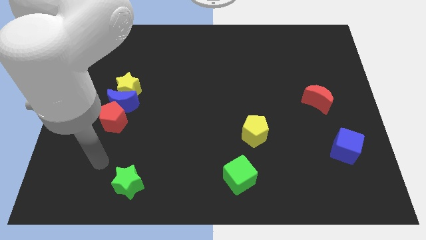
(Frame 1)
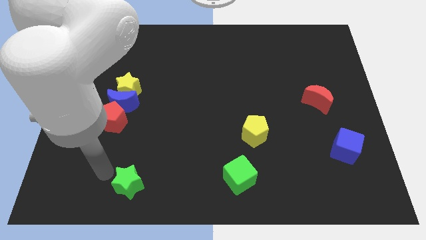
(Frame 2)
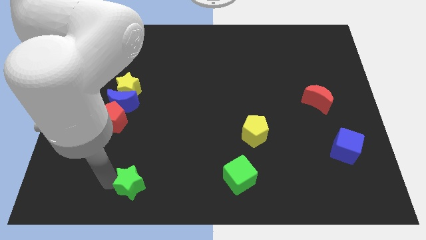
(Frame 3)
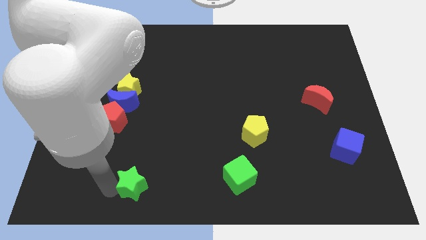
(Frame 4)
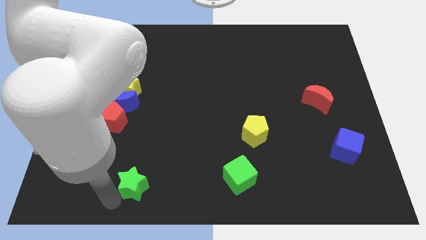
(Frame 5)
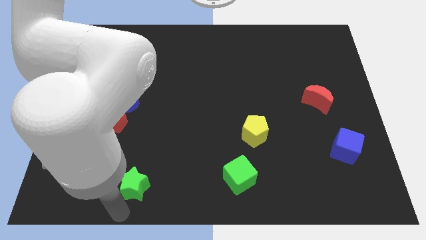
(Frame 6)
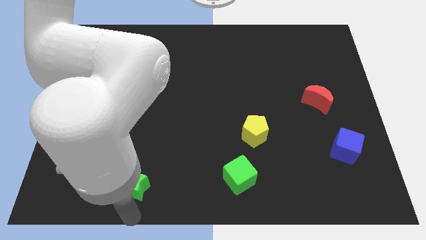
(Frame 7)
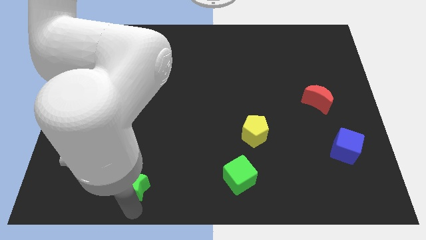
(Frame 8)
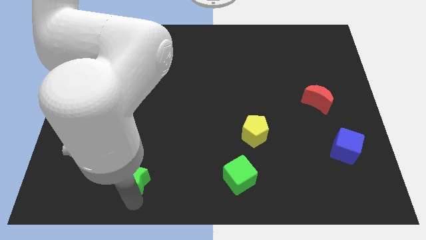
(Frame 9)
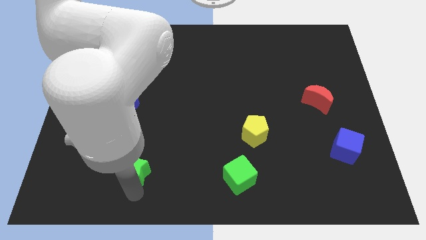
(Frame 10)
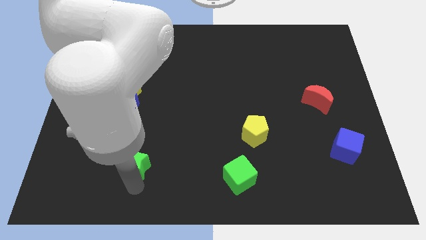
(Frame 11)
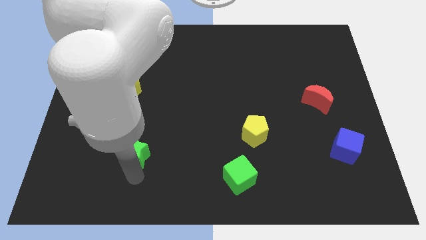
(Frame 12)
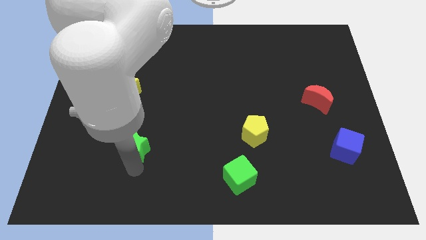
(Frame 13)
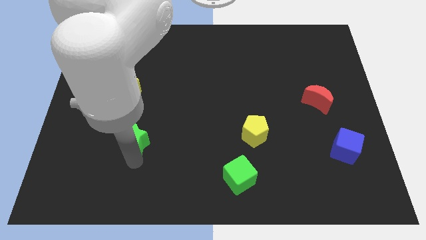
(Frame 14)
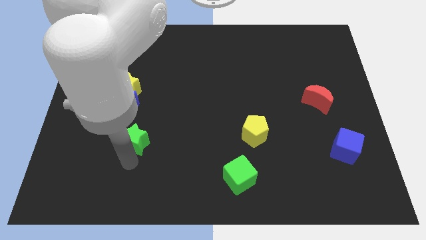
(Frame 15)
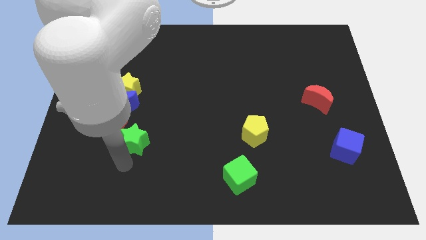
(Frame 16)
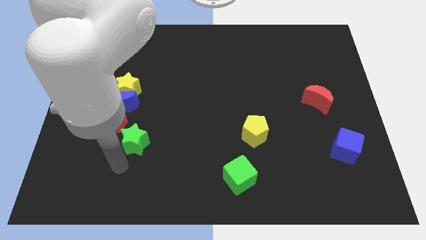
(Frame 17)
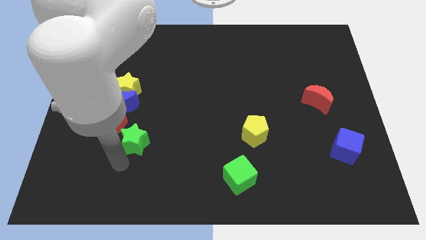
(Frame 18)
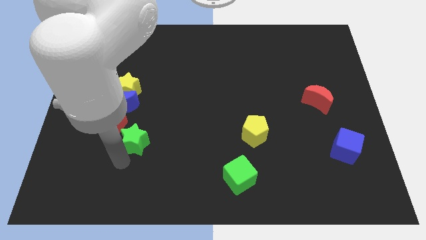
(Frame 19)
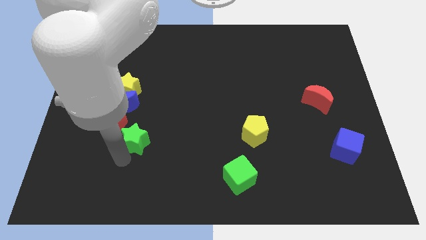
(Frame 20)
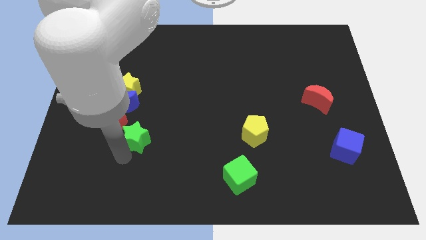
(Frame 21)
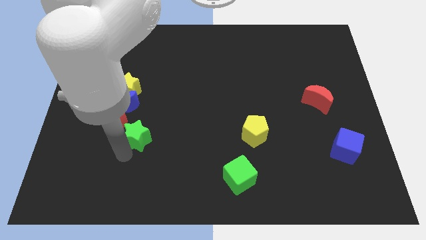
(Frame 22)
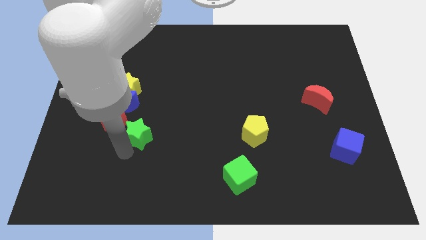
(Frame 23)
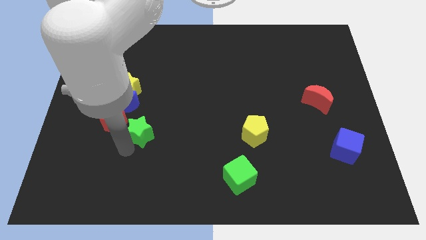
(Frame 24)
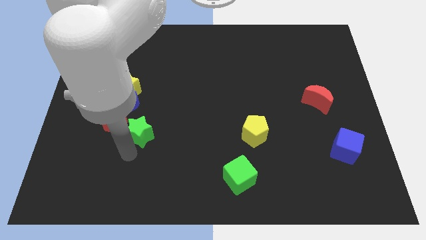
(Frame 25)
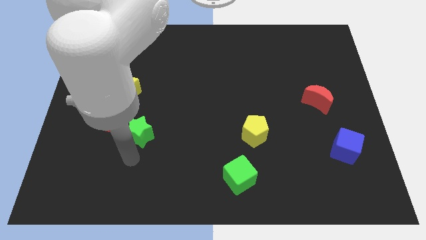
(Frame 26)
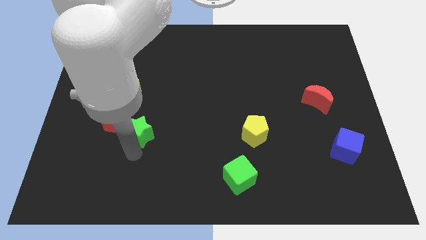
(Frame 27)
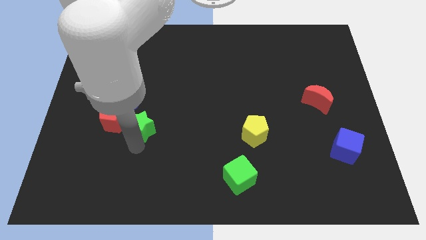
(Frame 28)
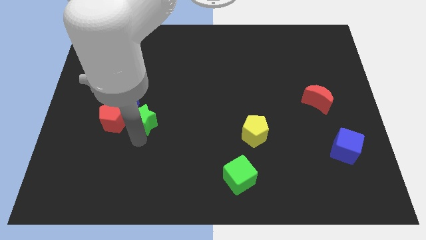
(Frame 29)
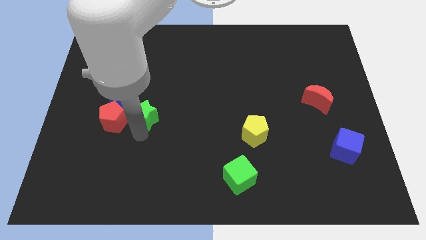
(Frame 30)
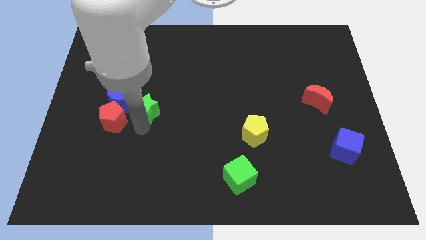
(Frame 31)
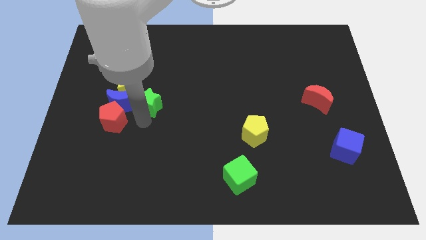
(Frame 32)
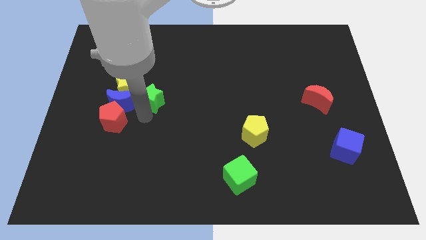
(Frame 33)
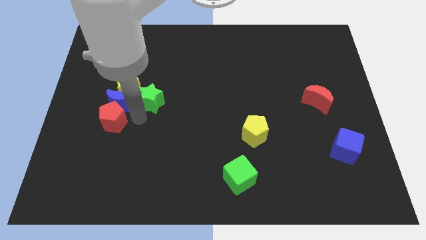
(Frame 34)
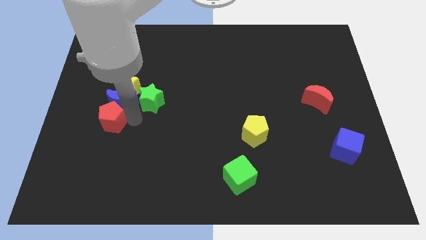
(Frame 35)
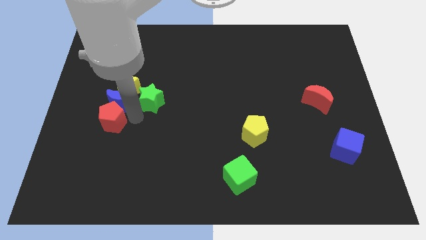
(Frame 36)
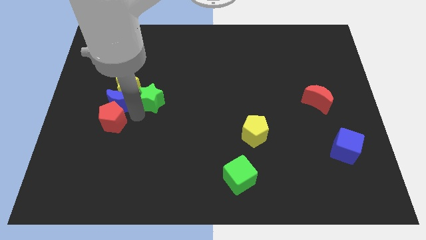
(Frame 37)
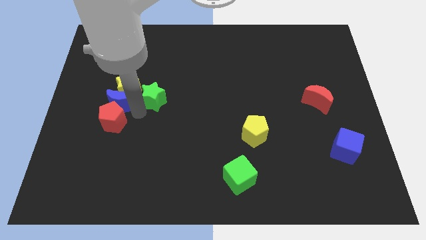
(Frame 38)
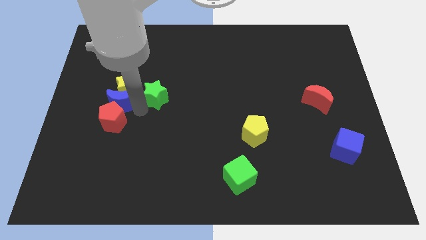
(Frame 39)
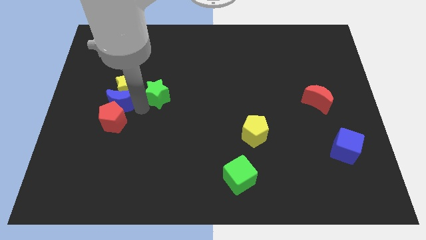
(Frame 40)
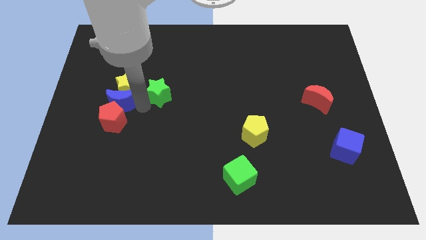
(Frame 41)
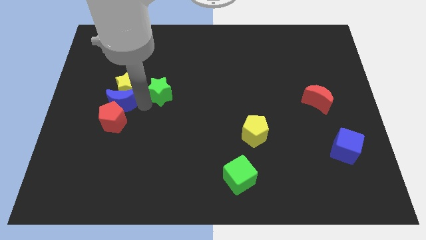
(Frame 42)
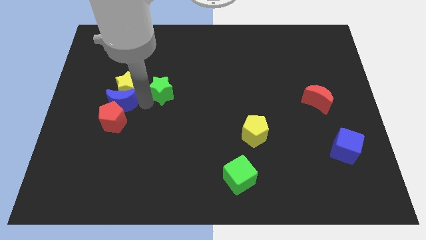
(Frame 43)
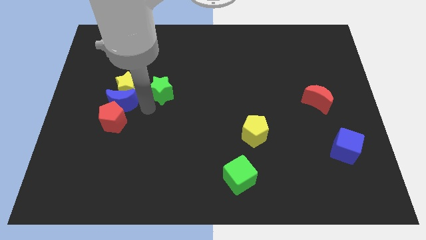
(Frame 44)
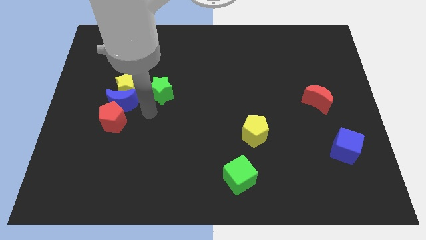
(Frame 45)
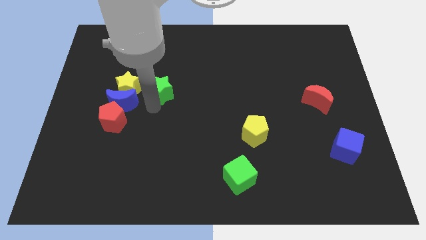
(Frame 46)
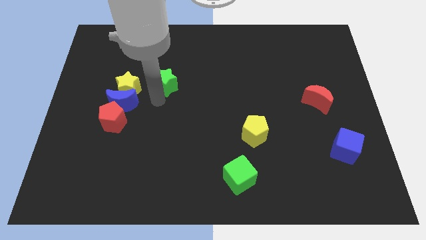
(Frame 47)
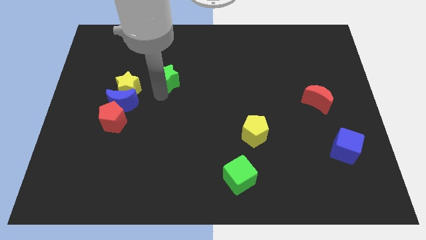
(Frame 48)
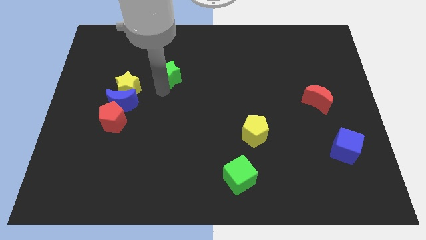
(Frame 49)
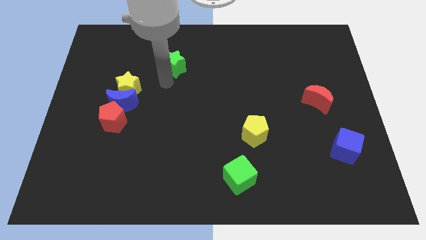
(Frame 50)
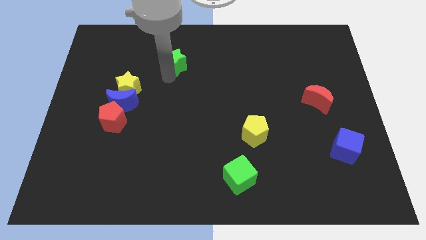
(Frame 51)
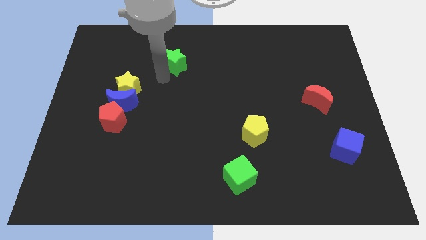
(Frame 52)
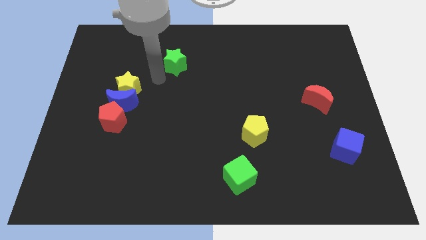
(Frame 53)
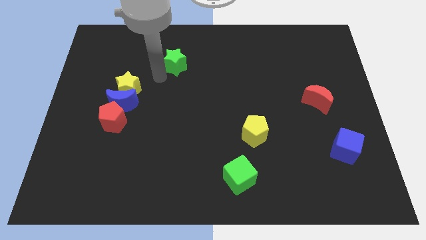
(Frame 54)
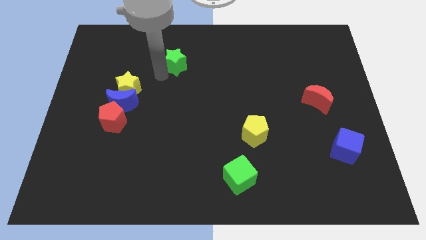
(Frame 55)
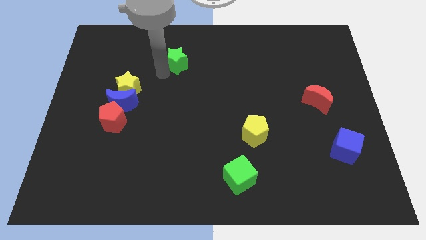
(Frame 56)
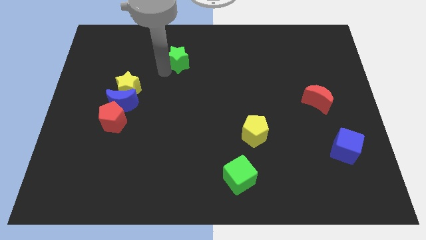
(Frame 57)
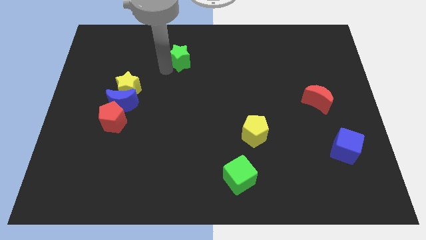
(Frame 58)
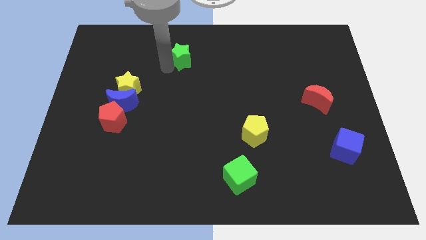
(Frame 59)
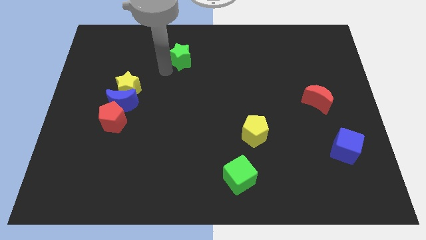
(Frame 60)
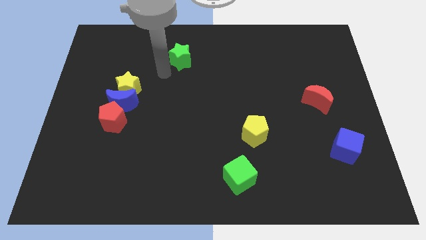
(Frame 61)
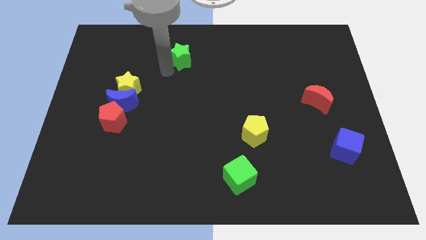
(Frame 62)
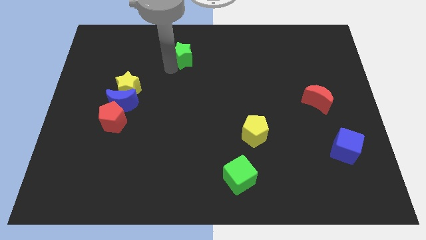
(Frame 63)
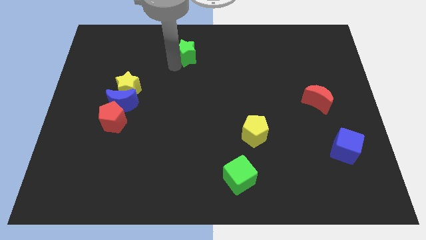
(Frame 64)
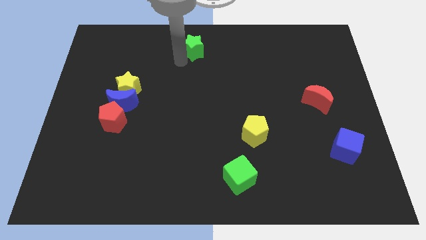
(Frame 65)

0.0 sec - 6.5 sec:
put the green star to the top
